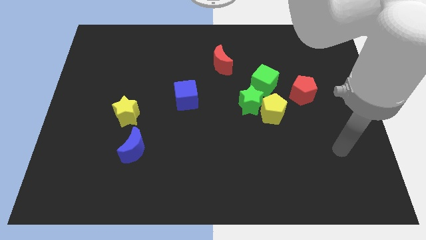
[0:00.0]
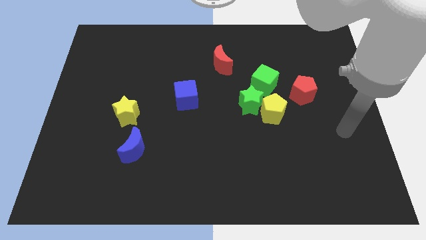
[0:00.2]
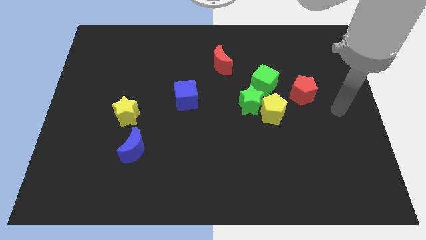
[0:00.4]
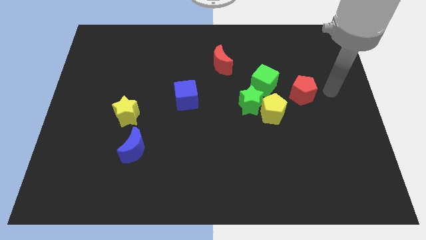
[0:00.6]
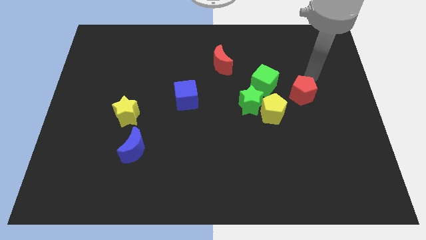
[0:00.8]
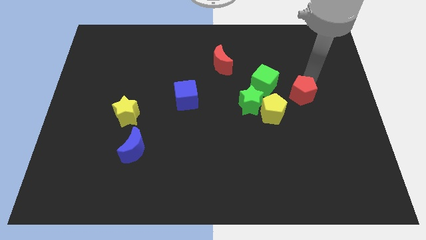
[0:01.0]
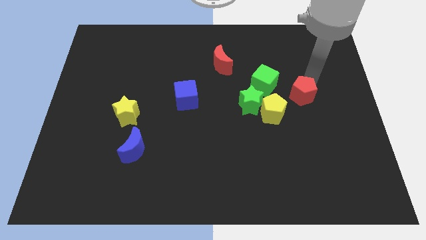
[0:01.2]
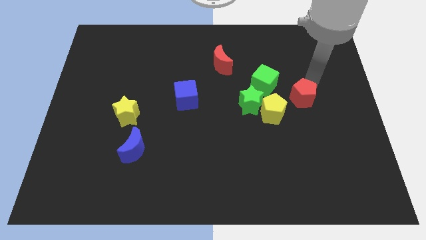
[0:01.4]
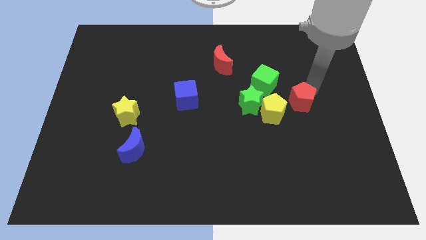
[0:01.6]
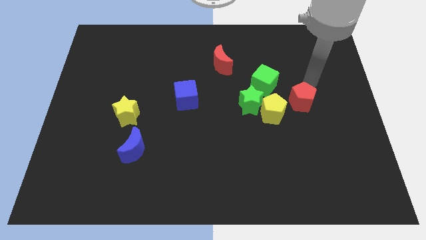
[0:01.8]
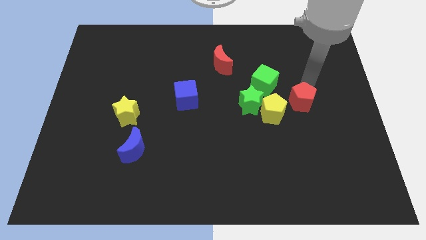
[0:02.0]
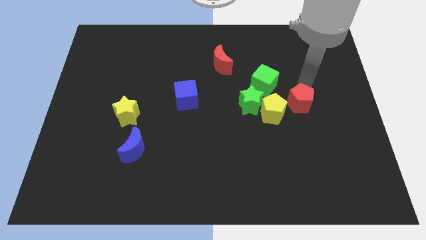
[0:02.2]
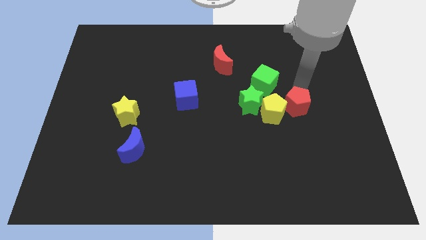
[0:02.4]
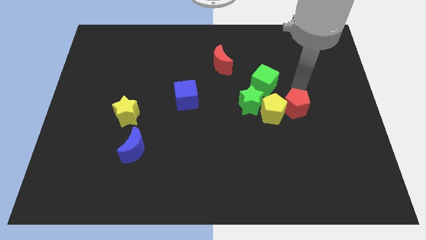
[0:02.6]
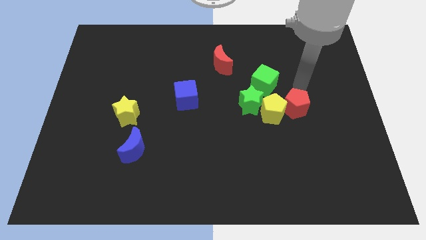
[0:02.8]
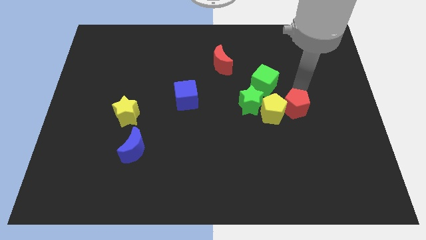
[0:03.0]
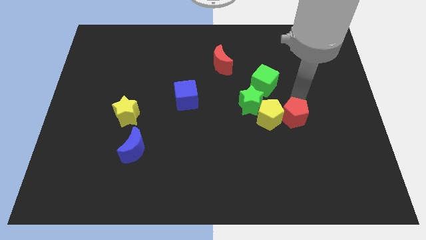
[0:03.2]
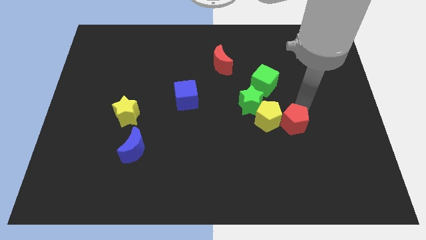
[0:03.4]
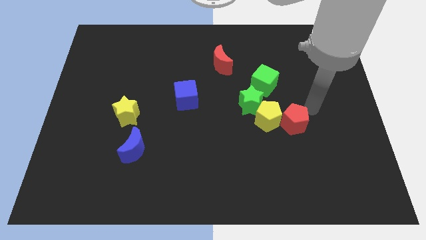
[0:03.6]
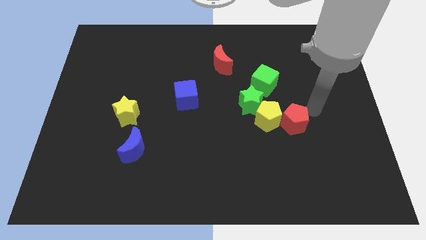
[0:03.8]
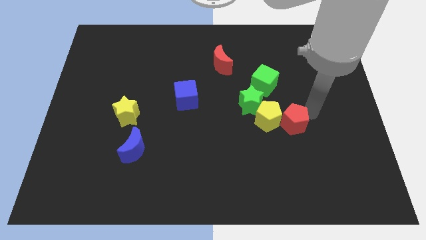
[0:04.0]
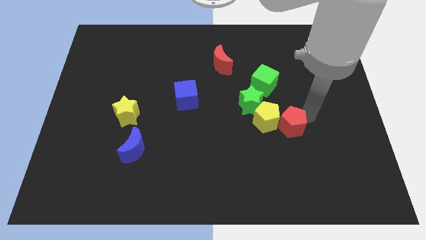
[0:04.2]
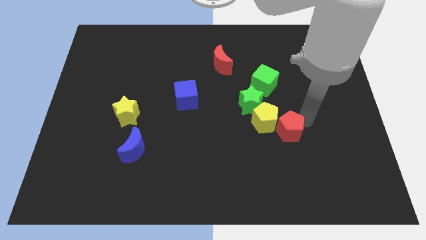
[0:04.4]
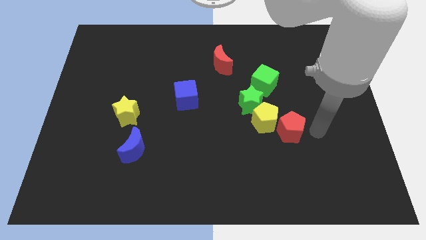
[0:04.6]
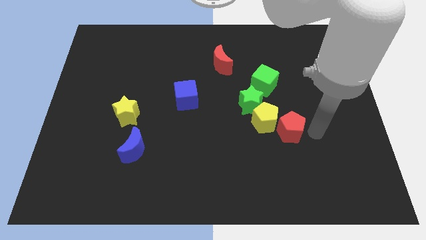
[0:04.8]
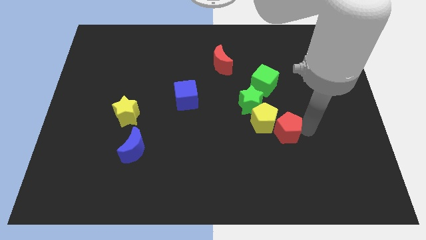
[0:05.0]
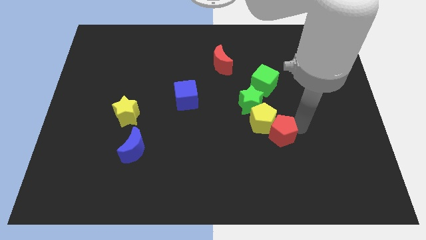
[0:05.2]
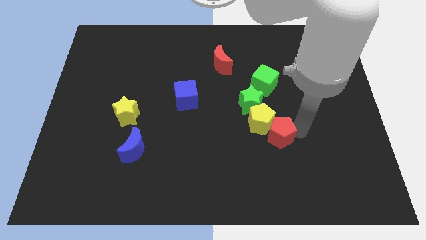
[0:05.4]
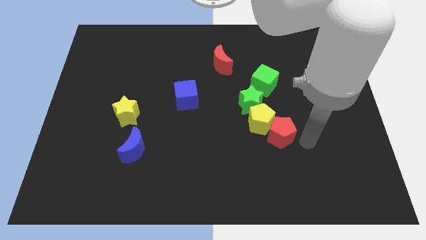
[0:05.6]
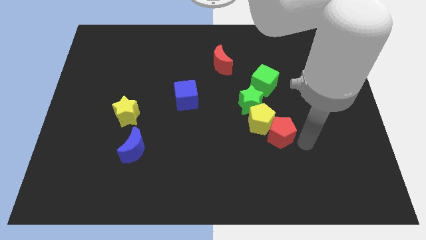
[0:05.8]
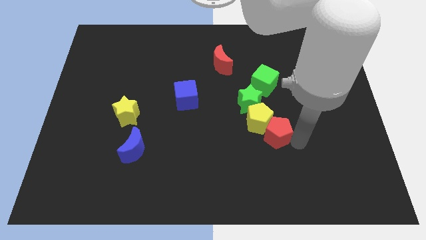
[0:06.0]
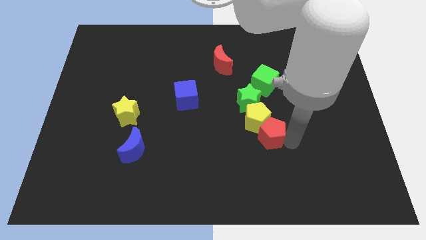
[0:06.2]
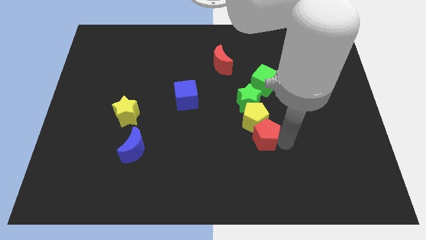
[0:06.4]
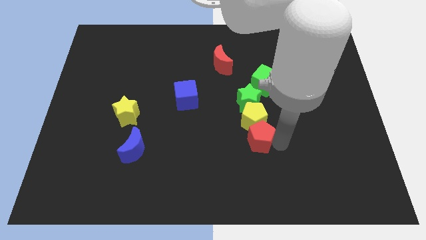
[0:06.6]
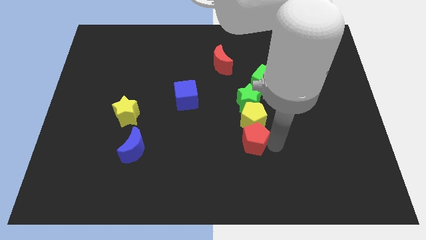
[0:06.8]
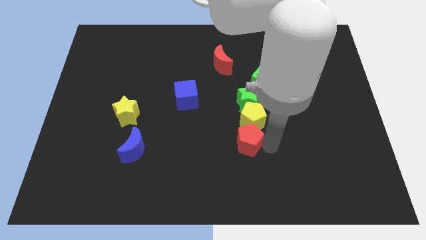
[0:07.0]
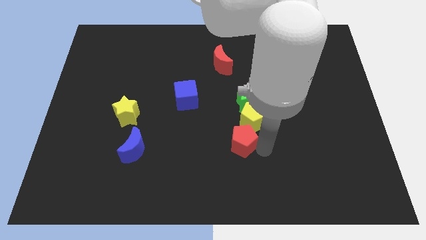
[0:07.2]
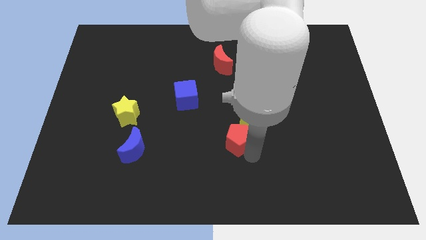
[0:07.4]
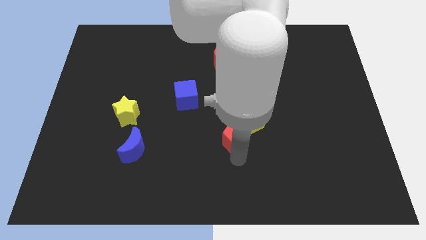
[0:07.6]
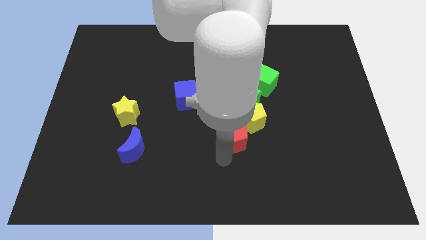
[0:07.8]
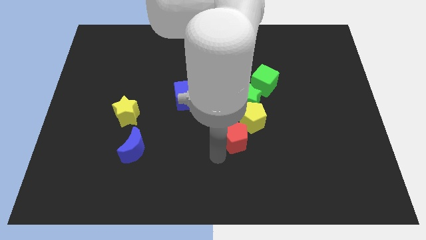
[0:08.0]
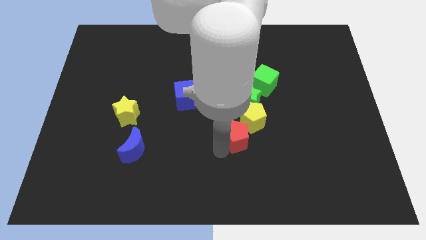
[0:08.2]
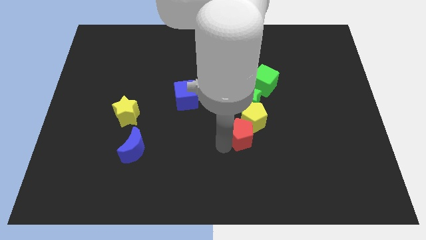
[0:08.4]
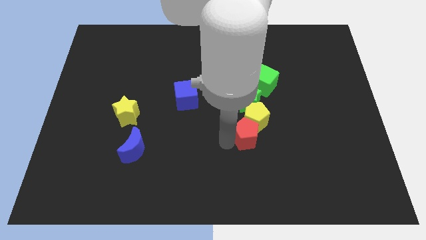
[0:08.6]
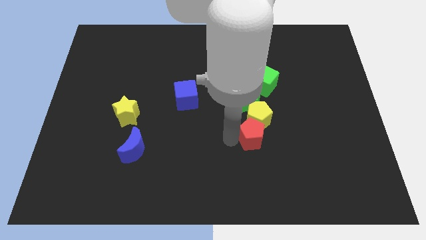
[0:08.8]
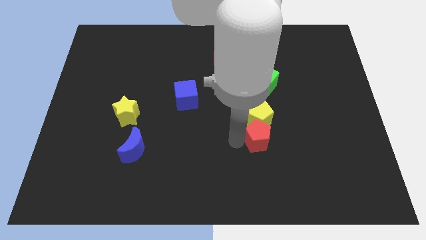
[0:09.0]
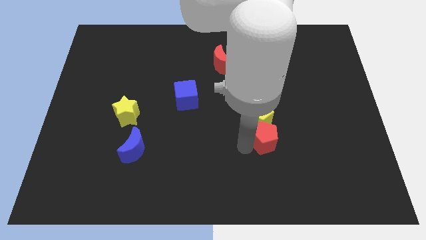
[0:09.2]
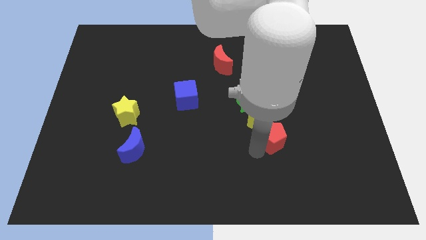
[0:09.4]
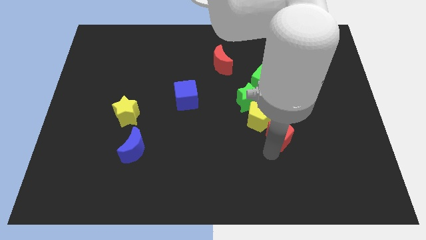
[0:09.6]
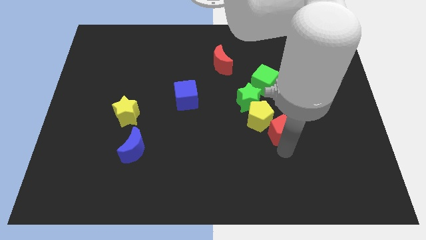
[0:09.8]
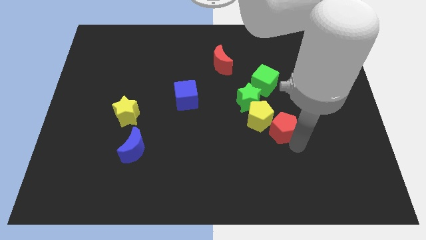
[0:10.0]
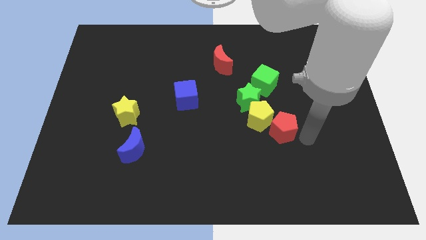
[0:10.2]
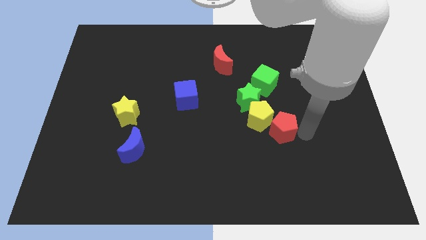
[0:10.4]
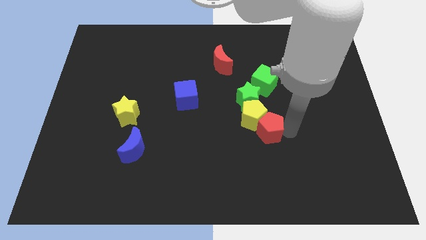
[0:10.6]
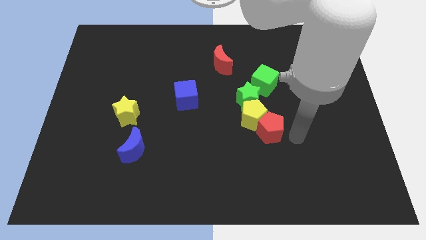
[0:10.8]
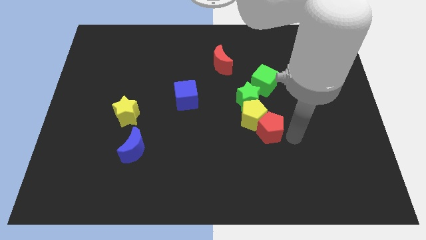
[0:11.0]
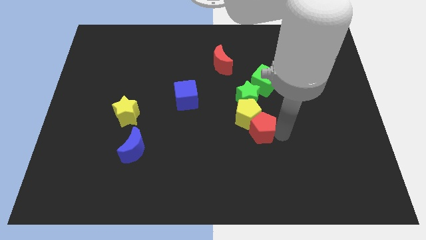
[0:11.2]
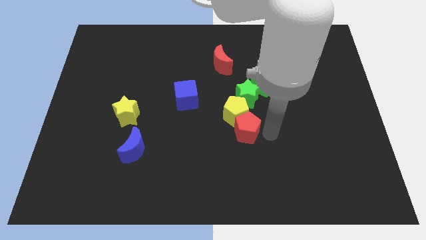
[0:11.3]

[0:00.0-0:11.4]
slide the red pentagon a bit left

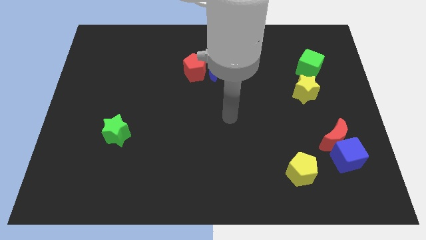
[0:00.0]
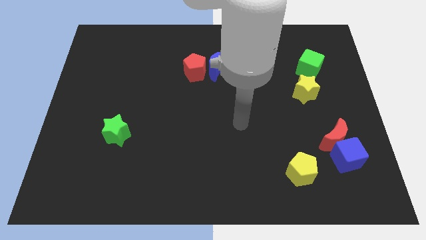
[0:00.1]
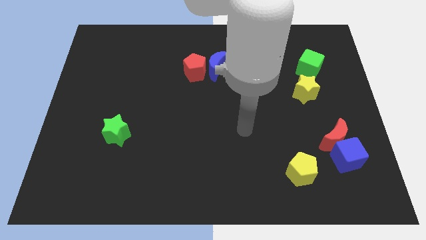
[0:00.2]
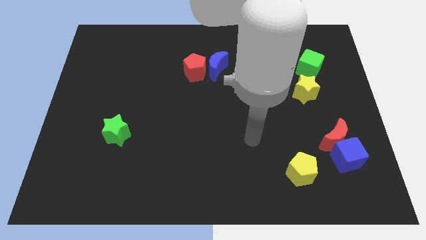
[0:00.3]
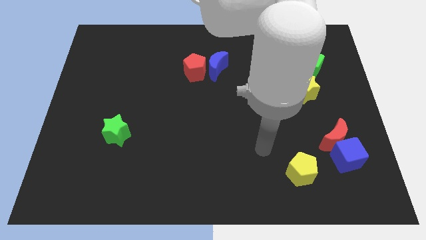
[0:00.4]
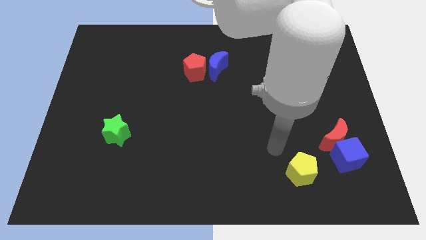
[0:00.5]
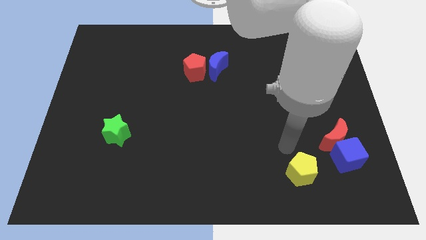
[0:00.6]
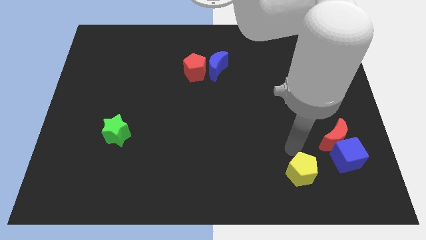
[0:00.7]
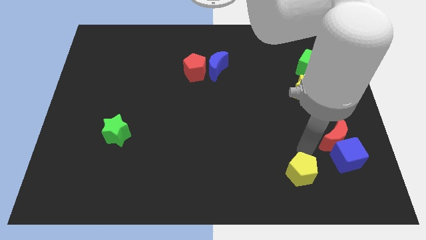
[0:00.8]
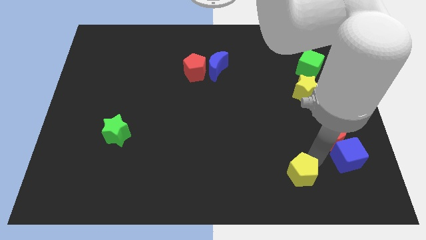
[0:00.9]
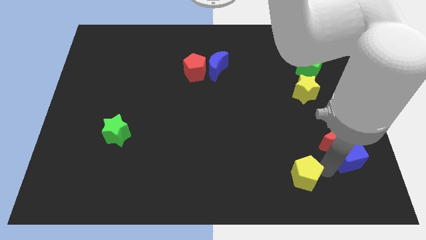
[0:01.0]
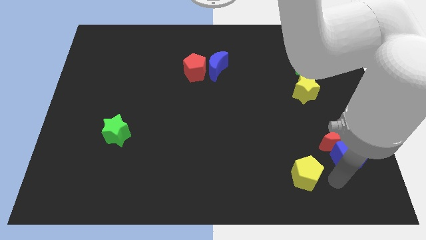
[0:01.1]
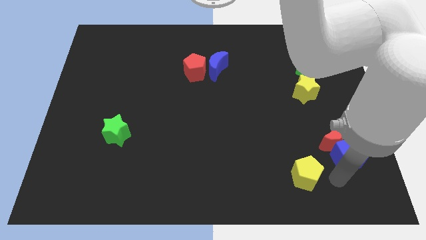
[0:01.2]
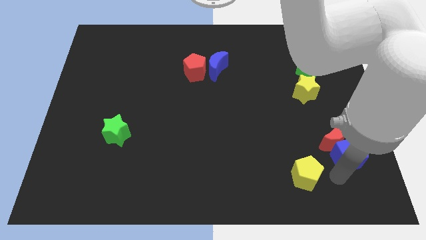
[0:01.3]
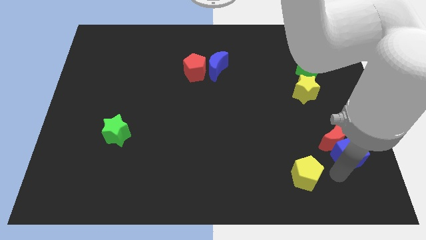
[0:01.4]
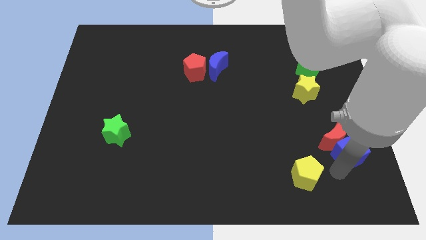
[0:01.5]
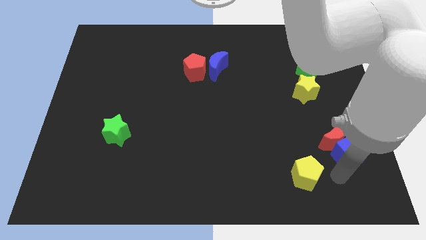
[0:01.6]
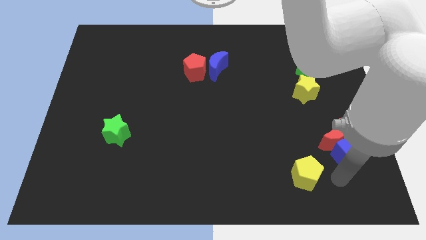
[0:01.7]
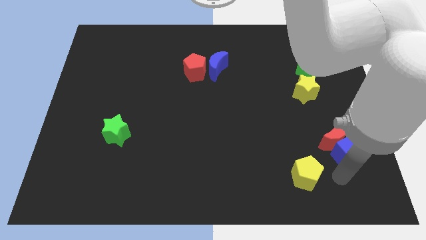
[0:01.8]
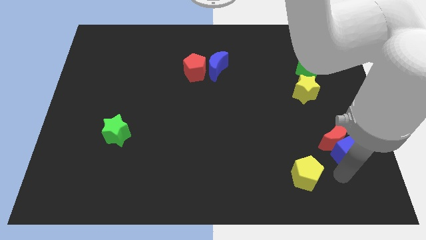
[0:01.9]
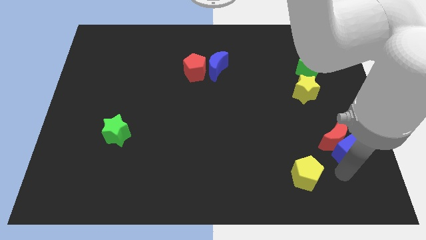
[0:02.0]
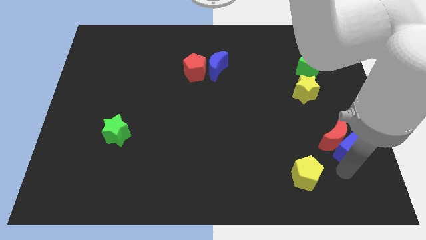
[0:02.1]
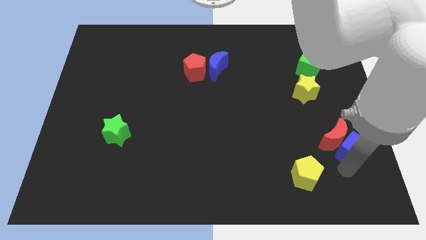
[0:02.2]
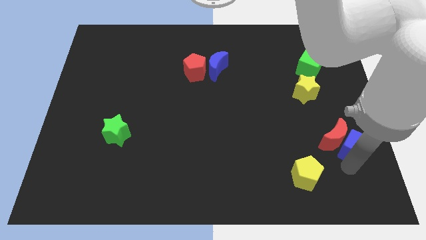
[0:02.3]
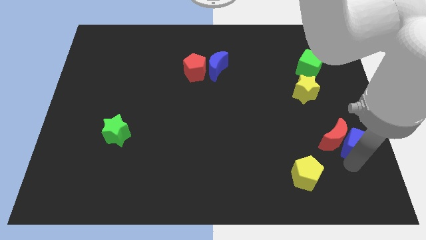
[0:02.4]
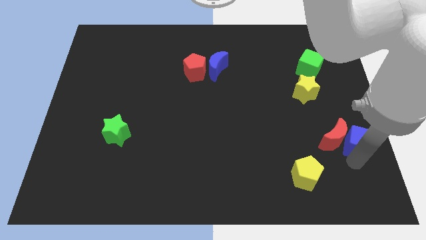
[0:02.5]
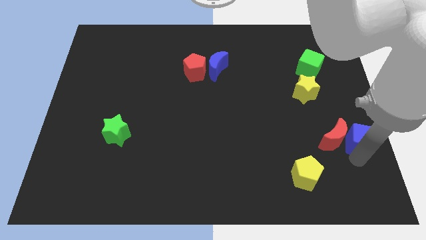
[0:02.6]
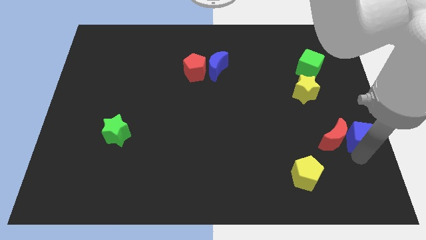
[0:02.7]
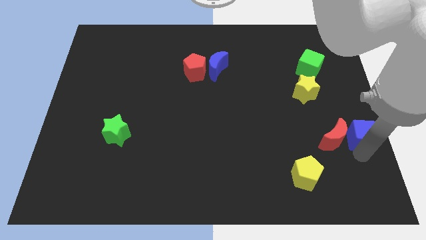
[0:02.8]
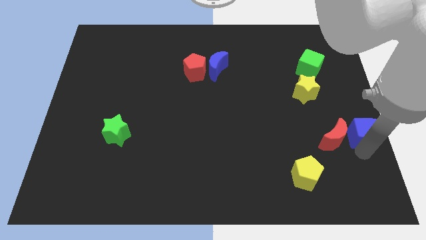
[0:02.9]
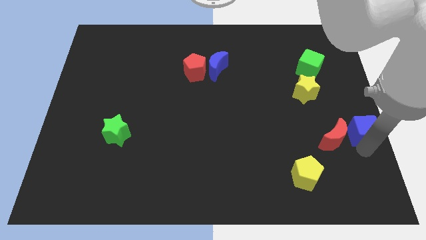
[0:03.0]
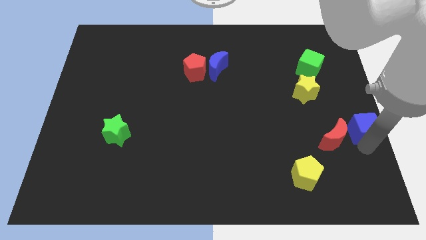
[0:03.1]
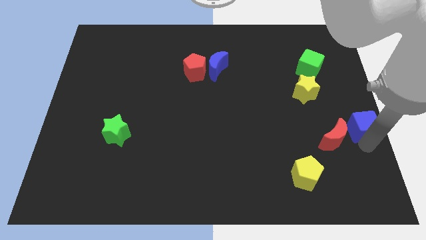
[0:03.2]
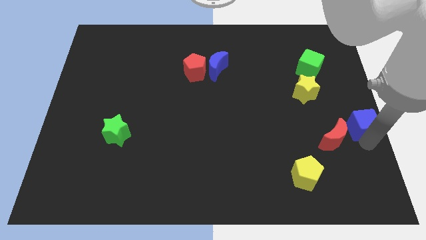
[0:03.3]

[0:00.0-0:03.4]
push the blue cube up somewhat
